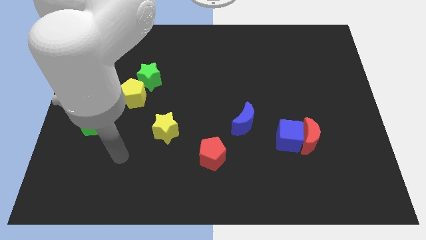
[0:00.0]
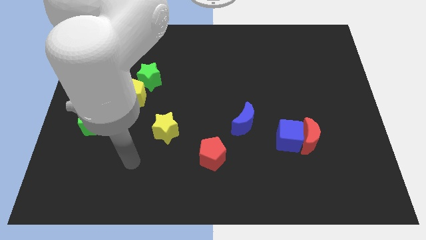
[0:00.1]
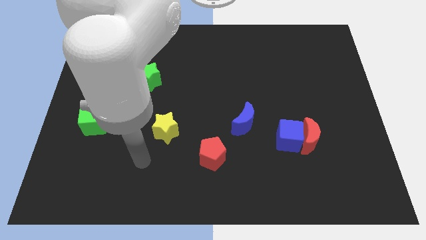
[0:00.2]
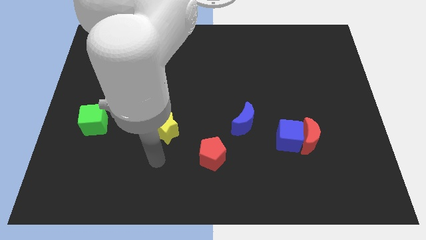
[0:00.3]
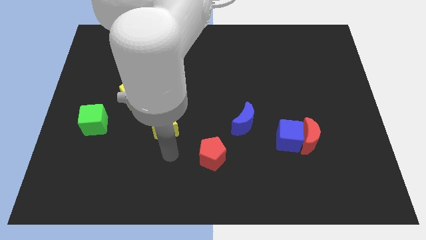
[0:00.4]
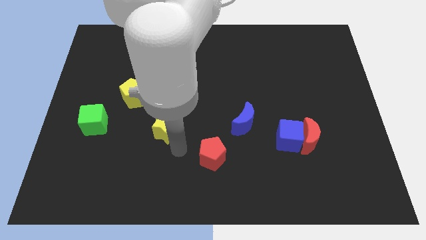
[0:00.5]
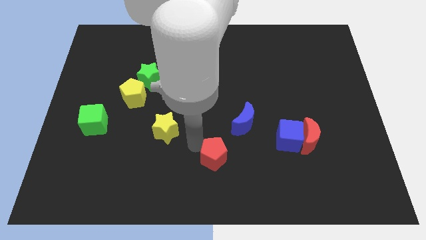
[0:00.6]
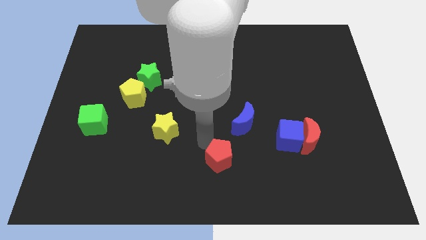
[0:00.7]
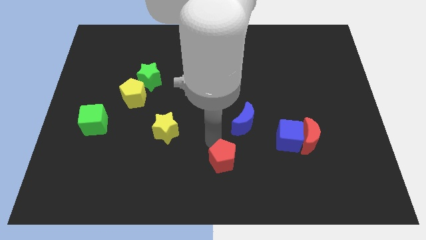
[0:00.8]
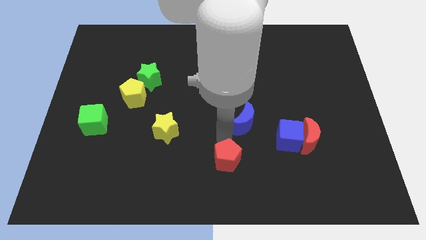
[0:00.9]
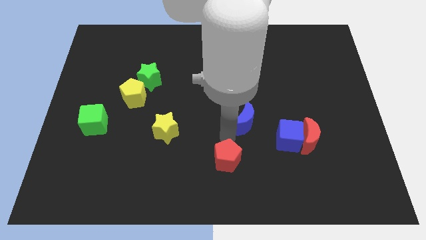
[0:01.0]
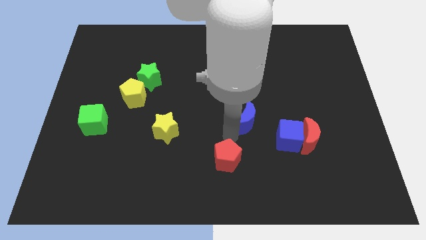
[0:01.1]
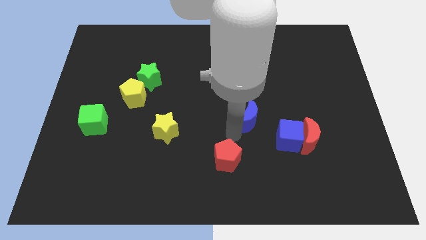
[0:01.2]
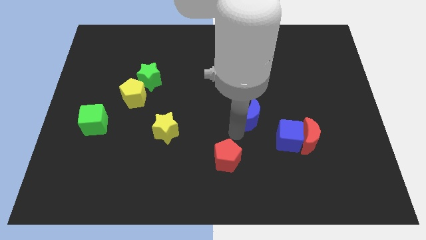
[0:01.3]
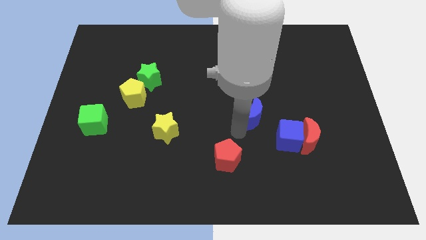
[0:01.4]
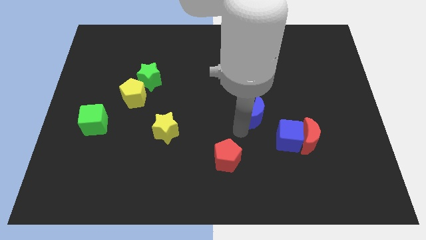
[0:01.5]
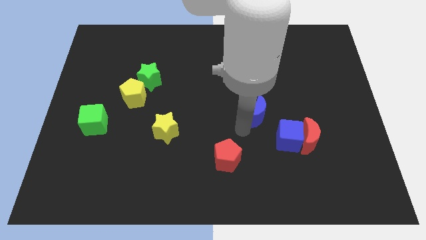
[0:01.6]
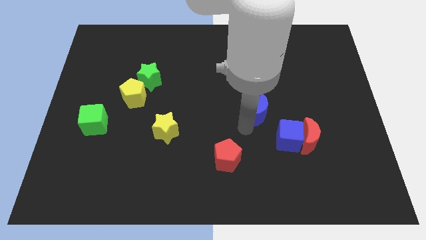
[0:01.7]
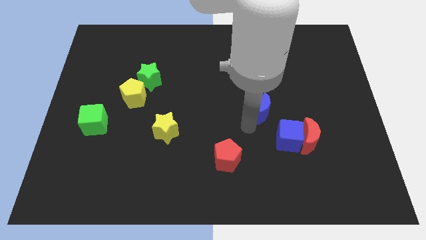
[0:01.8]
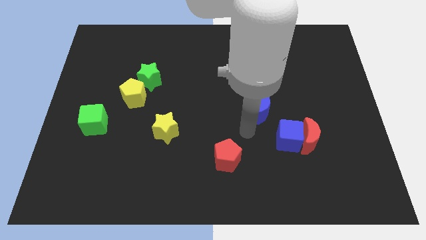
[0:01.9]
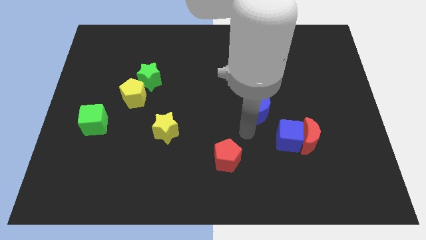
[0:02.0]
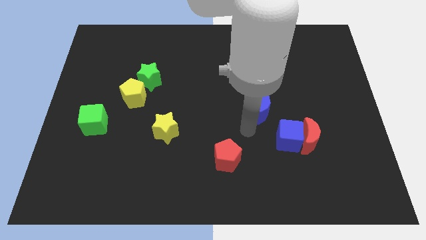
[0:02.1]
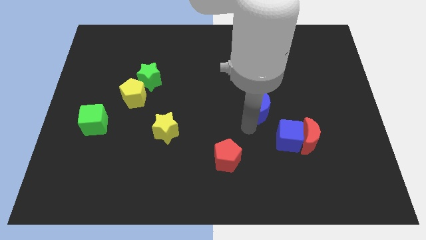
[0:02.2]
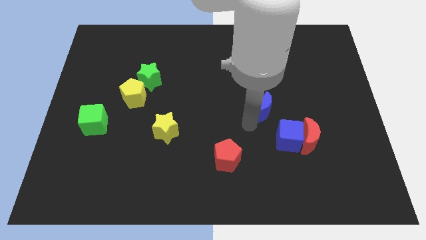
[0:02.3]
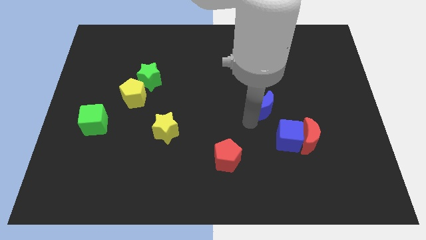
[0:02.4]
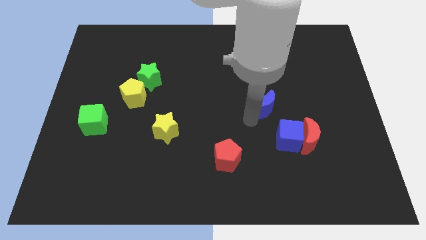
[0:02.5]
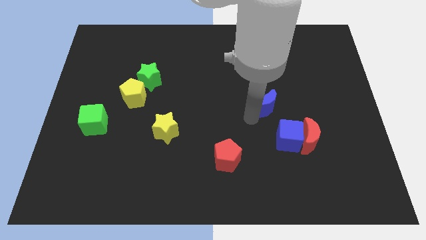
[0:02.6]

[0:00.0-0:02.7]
push the blue moon up and right diagonally a little bit

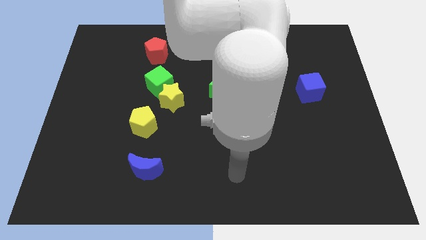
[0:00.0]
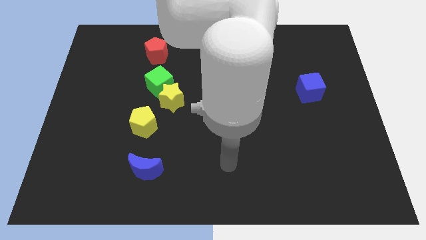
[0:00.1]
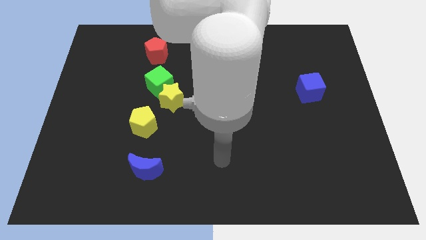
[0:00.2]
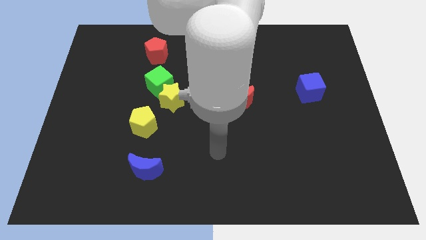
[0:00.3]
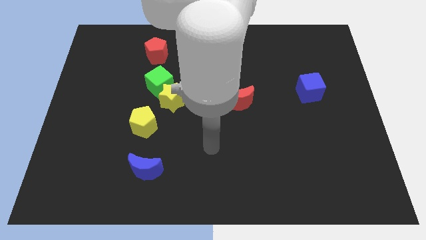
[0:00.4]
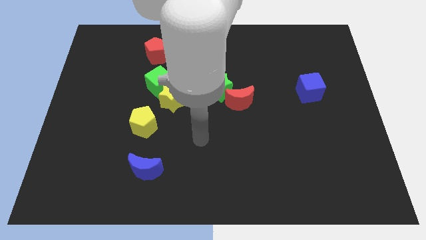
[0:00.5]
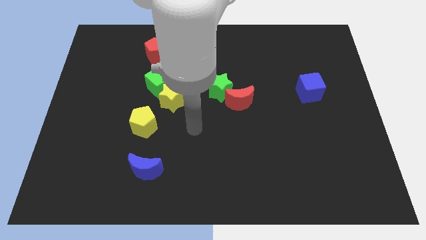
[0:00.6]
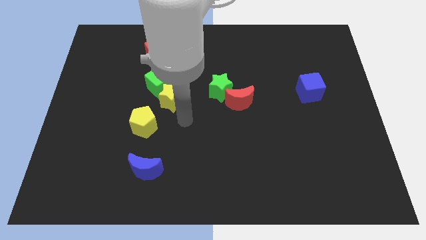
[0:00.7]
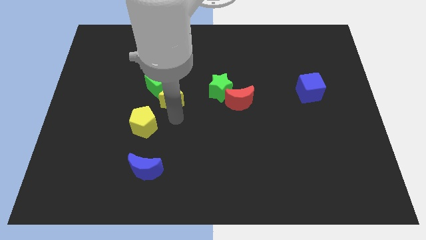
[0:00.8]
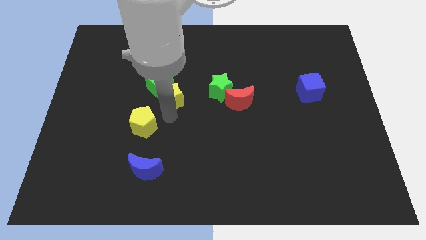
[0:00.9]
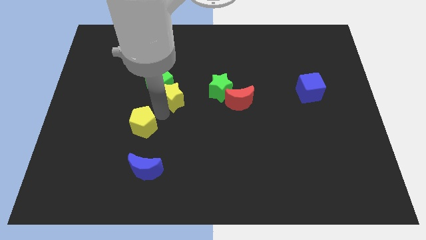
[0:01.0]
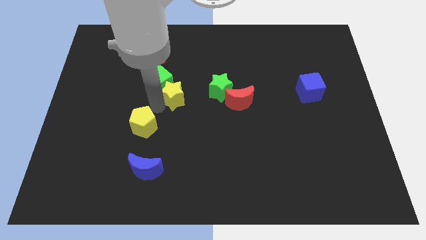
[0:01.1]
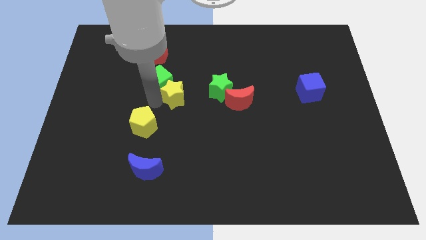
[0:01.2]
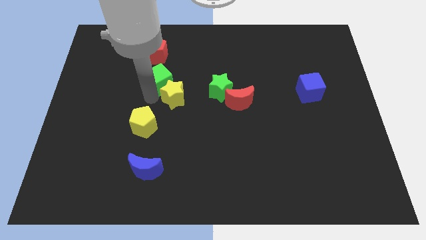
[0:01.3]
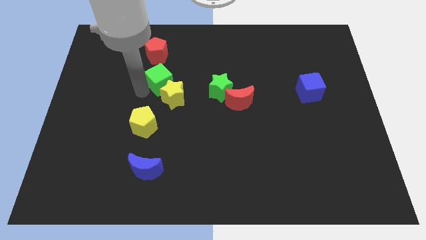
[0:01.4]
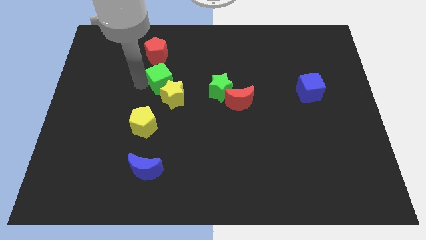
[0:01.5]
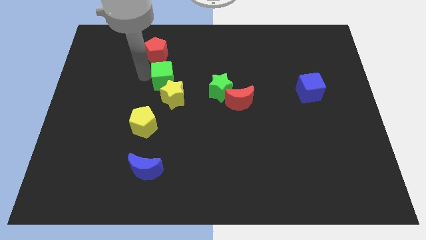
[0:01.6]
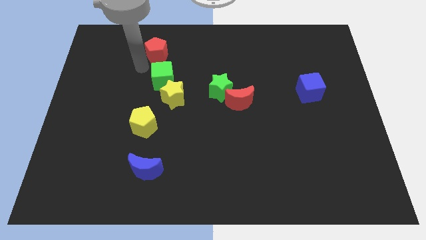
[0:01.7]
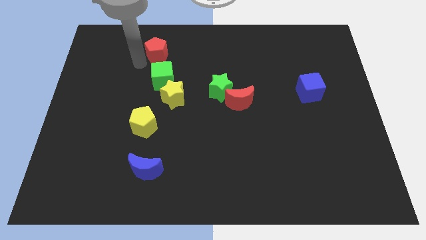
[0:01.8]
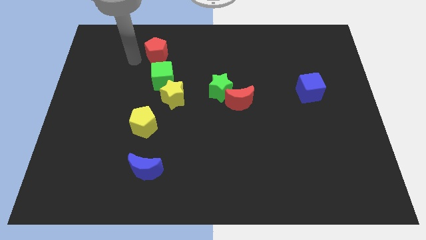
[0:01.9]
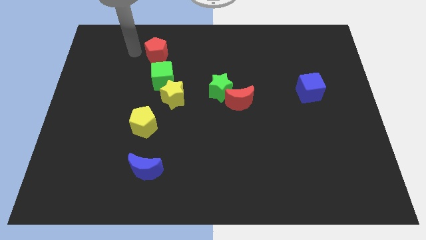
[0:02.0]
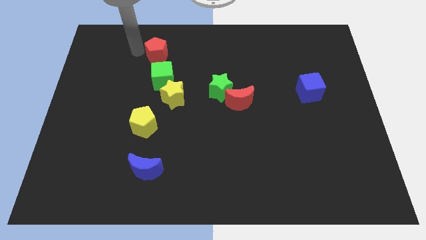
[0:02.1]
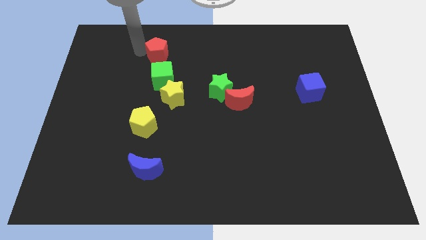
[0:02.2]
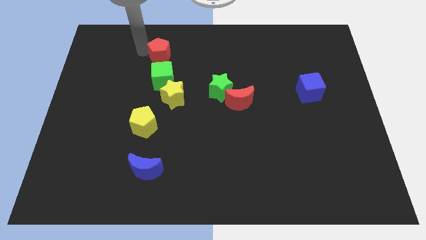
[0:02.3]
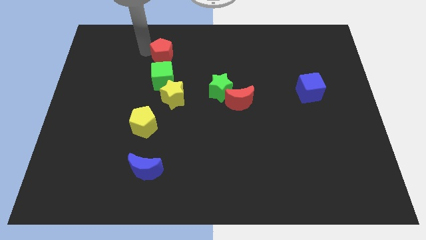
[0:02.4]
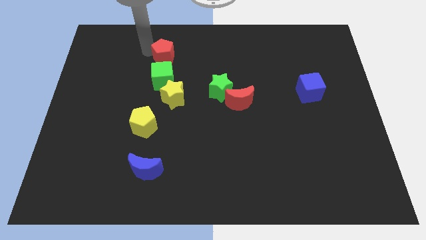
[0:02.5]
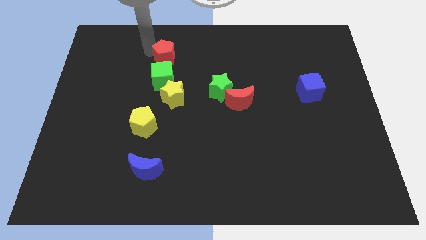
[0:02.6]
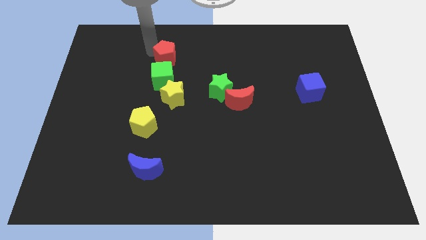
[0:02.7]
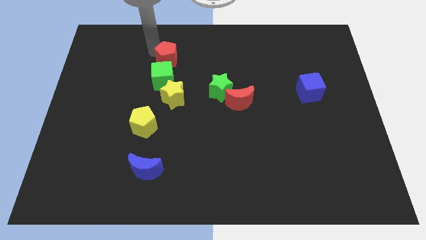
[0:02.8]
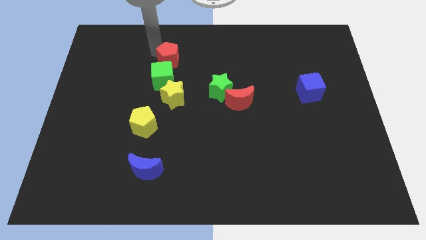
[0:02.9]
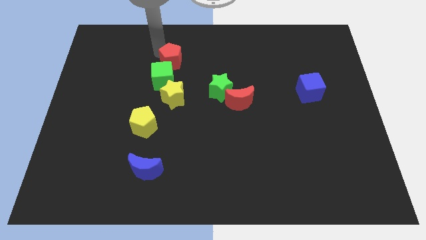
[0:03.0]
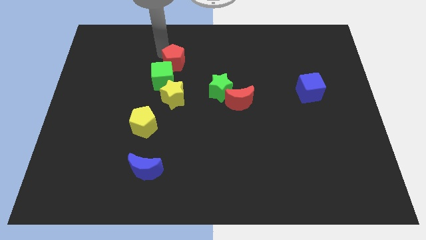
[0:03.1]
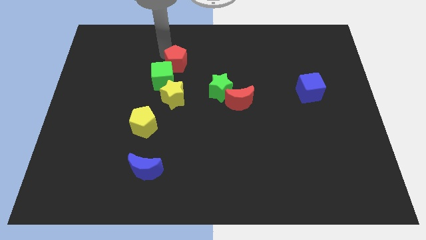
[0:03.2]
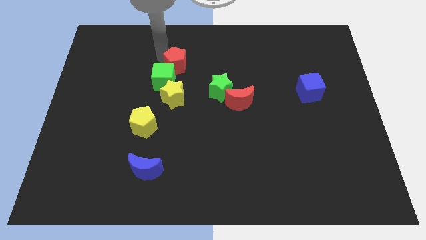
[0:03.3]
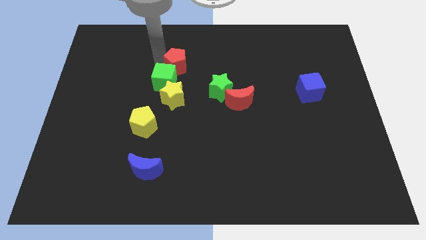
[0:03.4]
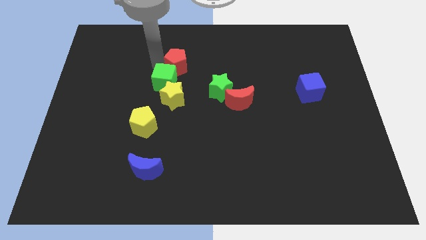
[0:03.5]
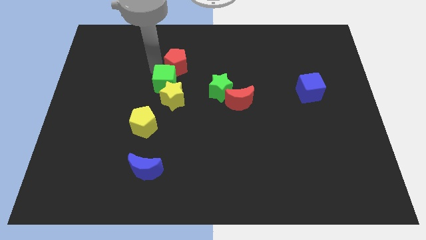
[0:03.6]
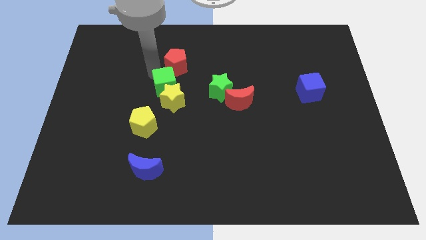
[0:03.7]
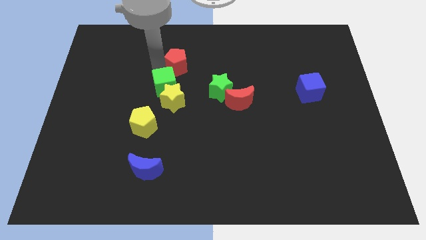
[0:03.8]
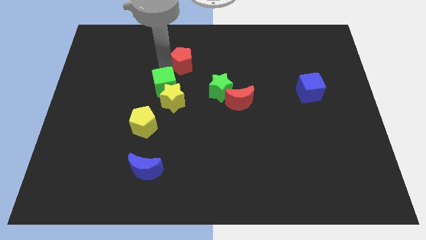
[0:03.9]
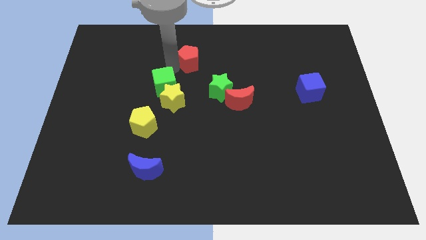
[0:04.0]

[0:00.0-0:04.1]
slightly push the red pentagon to the right

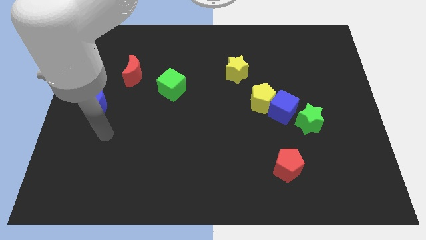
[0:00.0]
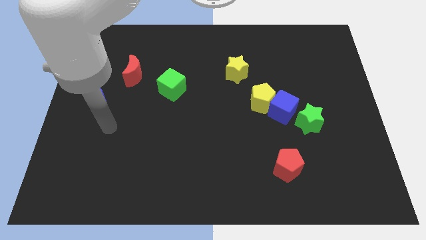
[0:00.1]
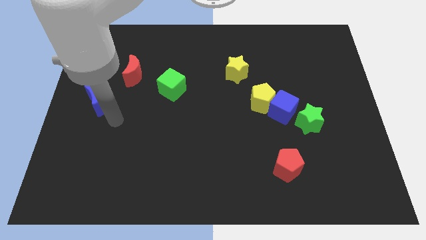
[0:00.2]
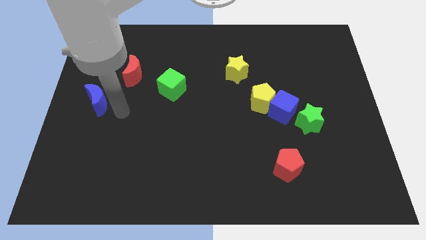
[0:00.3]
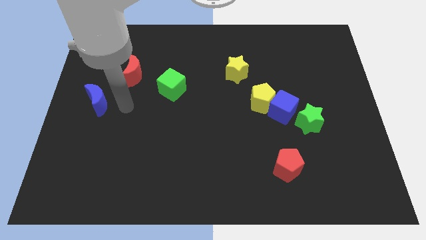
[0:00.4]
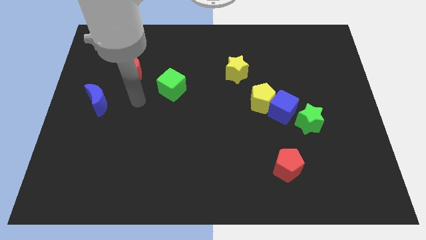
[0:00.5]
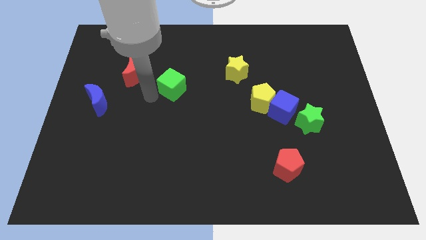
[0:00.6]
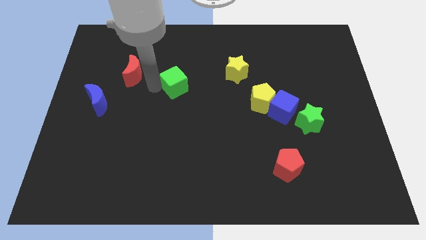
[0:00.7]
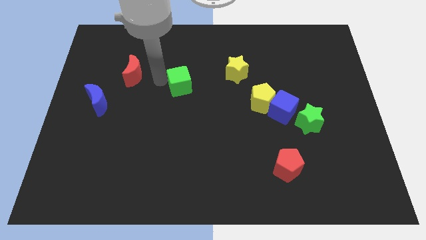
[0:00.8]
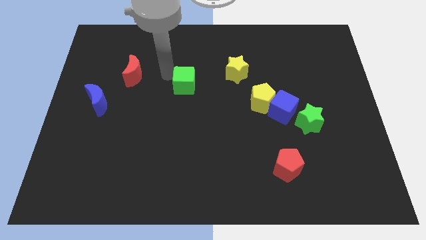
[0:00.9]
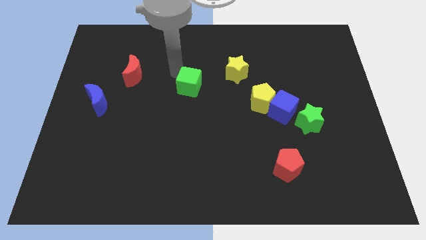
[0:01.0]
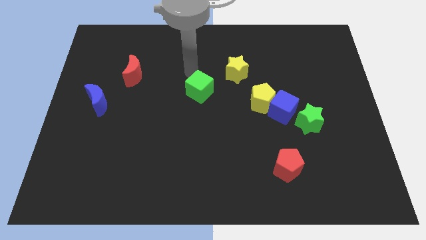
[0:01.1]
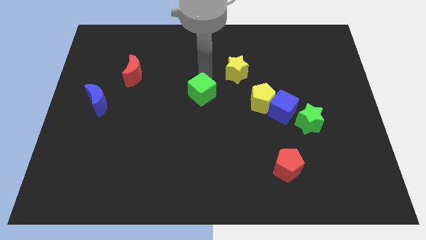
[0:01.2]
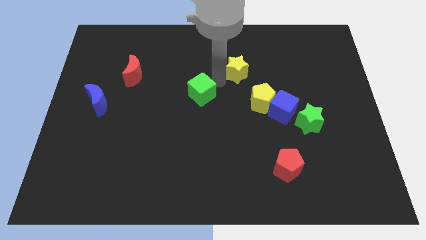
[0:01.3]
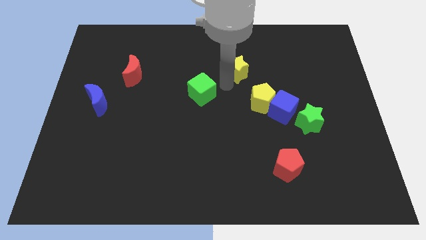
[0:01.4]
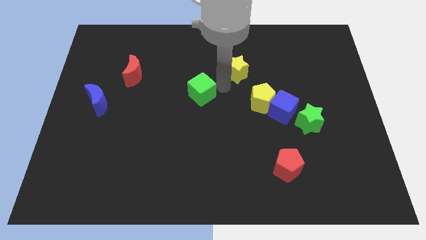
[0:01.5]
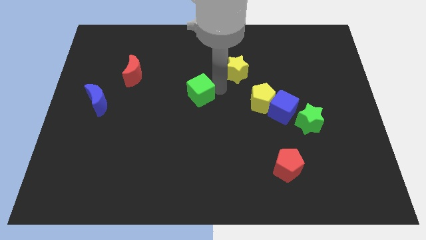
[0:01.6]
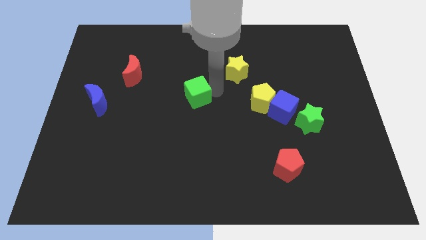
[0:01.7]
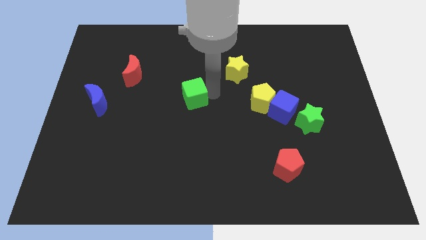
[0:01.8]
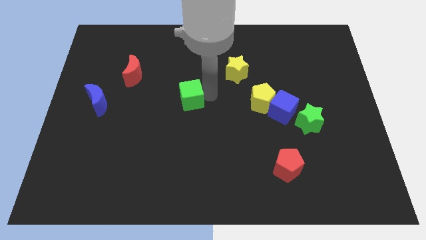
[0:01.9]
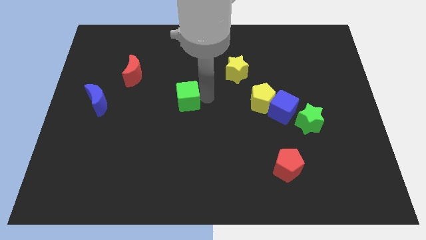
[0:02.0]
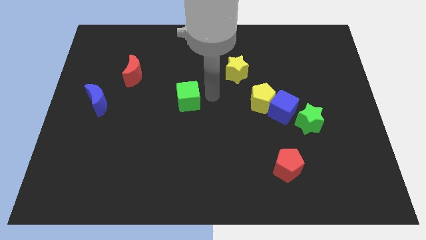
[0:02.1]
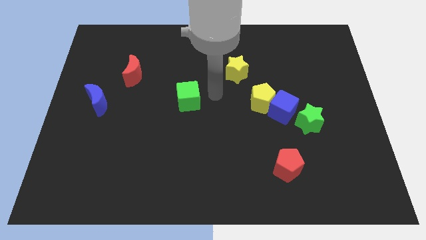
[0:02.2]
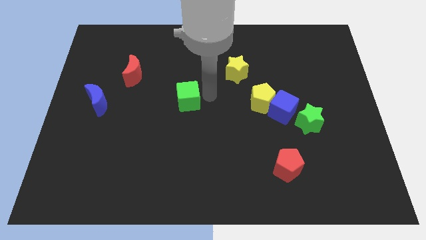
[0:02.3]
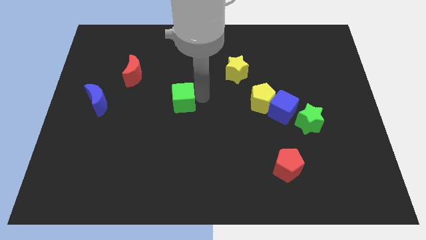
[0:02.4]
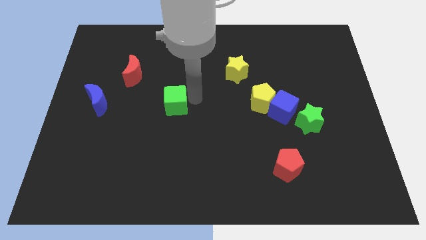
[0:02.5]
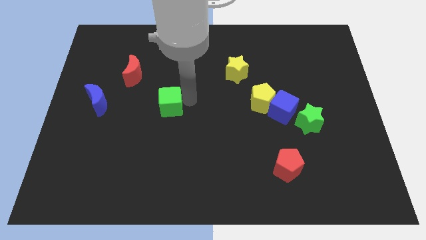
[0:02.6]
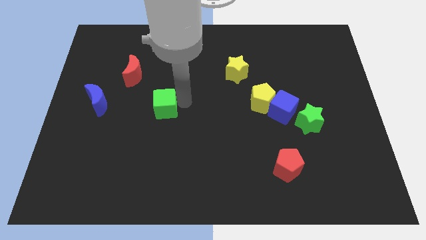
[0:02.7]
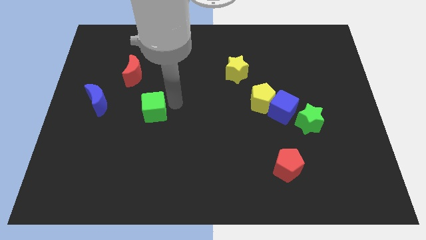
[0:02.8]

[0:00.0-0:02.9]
push the green cube down and then to the left a little
